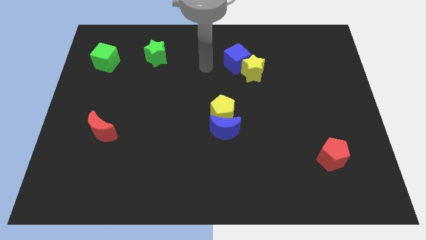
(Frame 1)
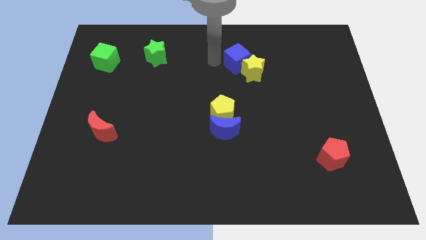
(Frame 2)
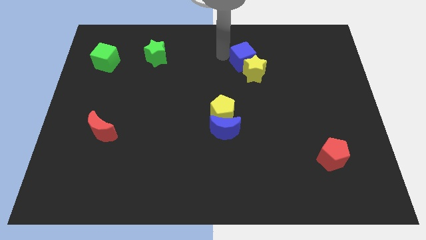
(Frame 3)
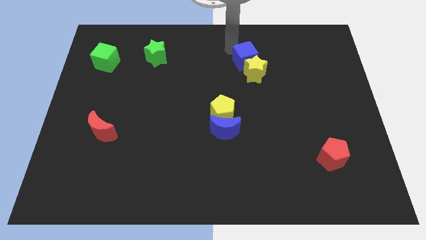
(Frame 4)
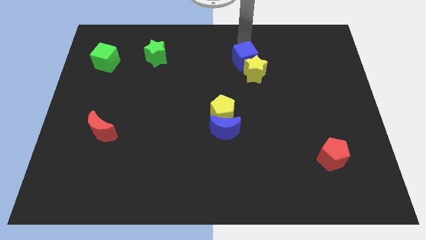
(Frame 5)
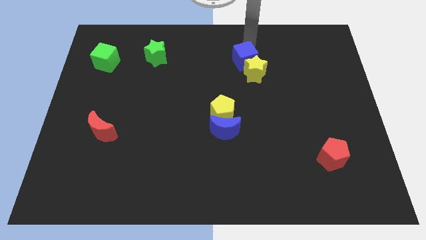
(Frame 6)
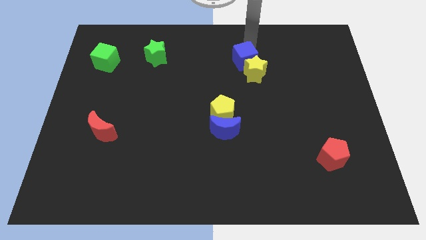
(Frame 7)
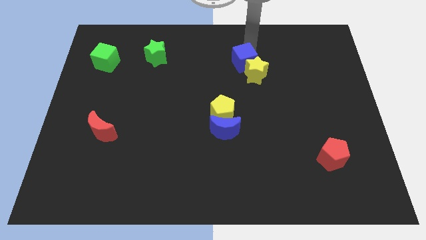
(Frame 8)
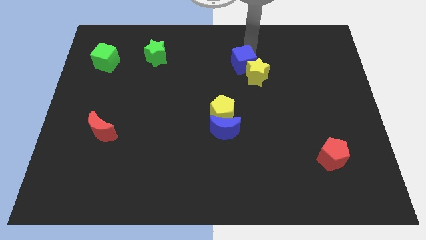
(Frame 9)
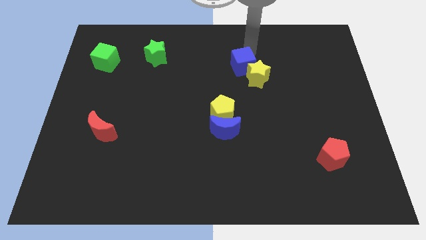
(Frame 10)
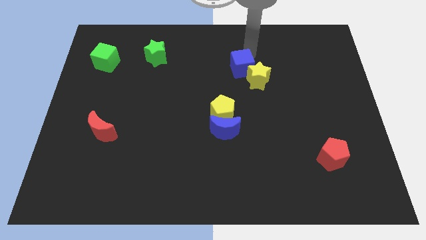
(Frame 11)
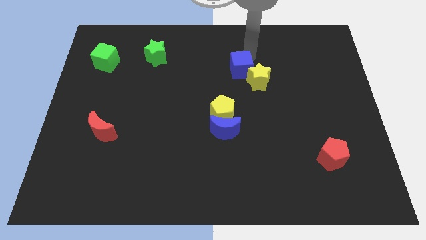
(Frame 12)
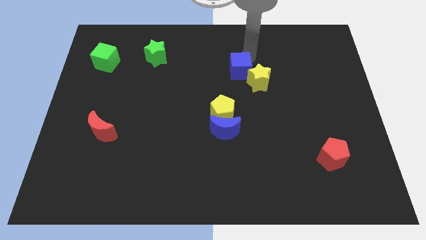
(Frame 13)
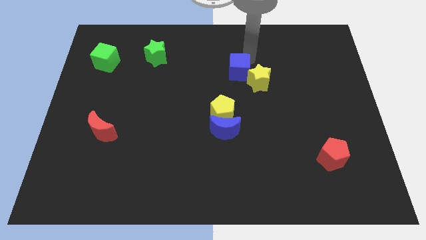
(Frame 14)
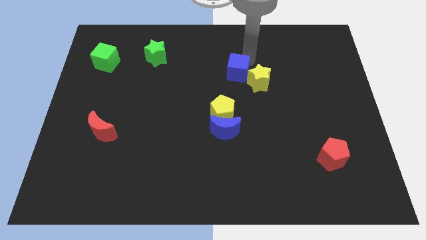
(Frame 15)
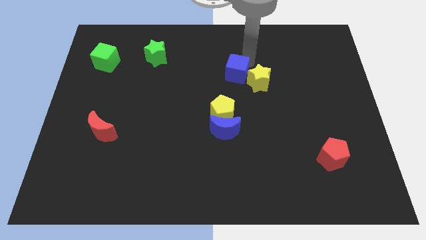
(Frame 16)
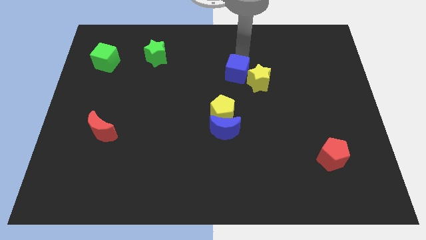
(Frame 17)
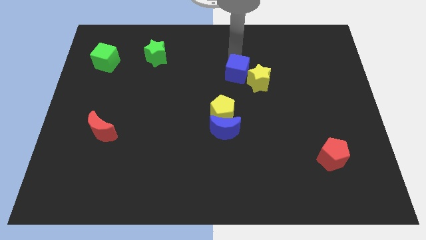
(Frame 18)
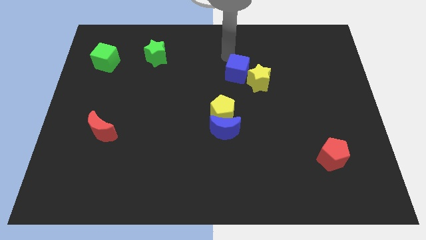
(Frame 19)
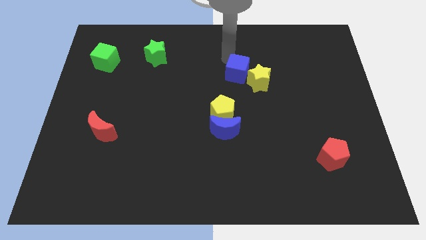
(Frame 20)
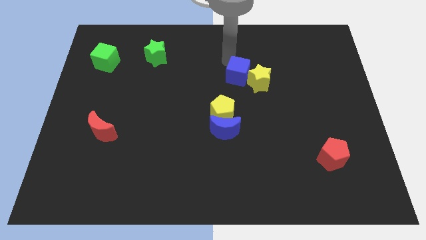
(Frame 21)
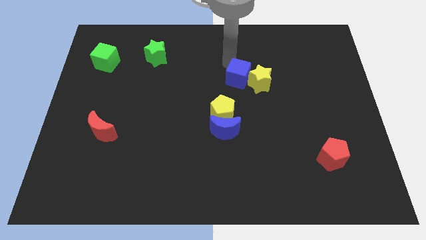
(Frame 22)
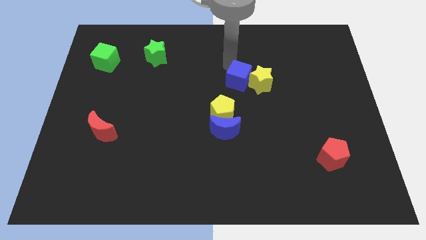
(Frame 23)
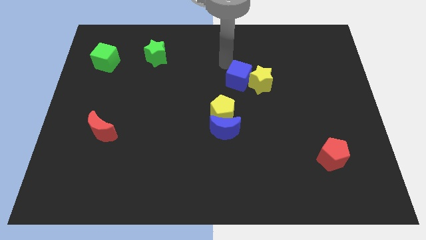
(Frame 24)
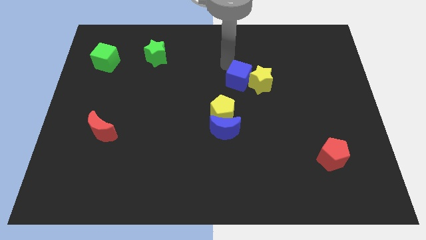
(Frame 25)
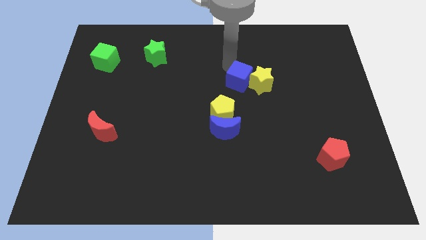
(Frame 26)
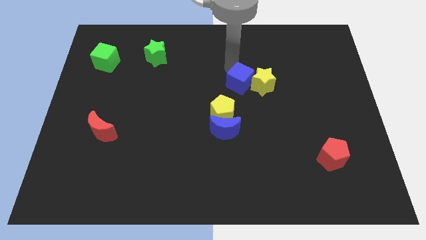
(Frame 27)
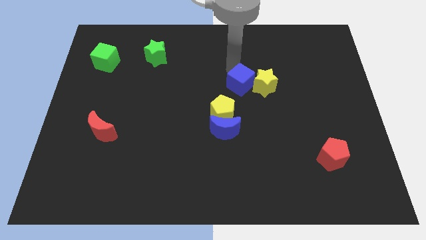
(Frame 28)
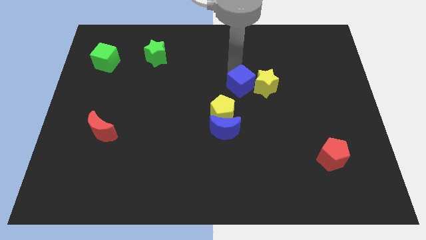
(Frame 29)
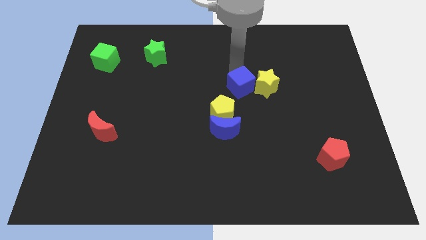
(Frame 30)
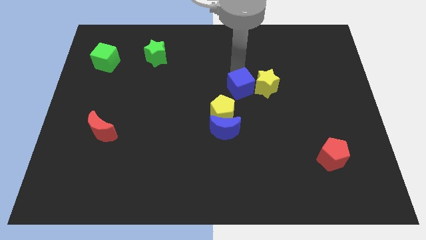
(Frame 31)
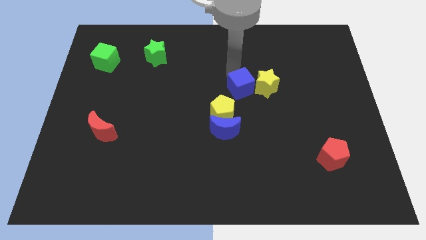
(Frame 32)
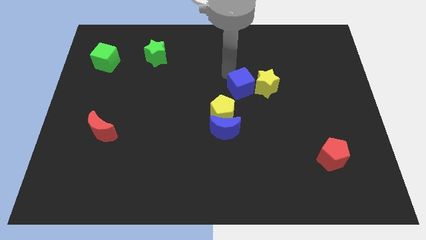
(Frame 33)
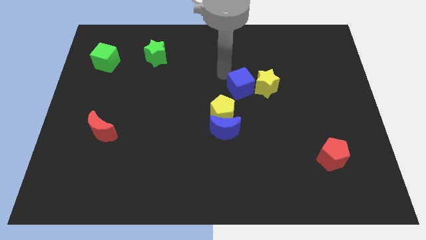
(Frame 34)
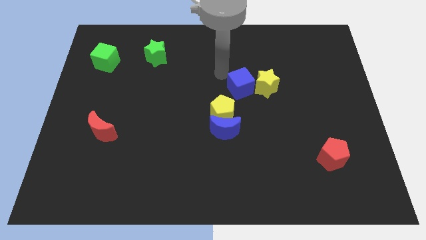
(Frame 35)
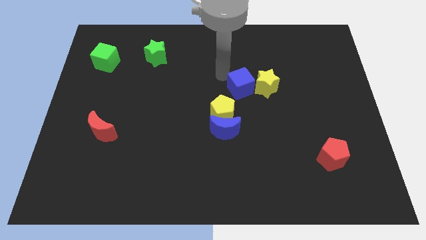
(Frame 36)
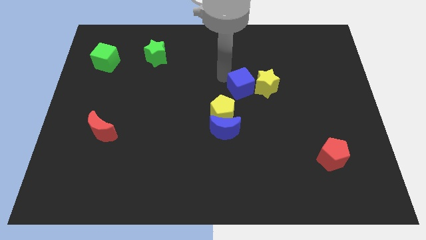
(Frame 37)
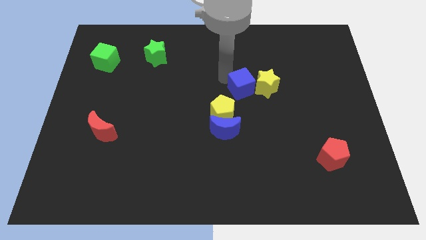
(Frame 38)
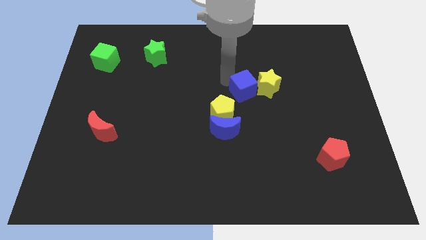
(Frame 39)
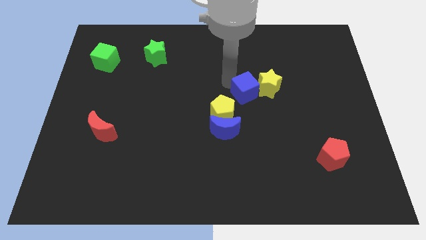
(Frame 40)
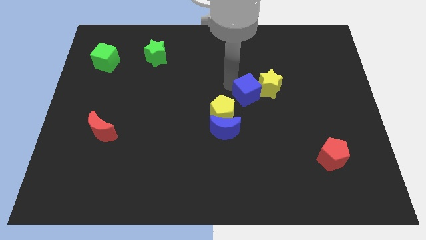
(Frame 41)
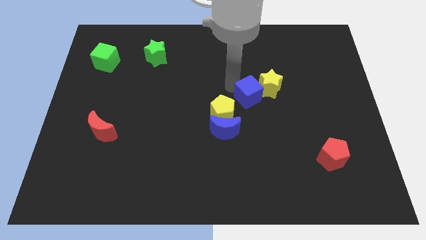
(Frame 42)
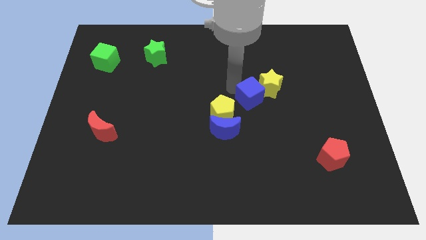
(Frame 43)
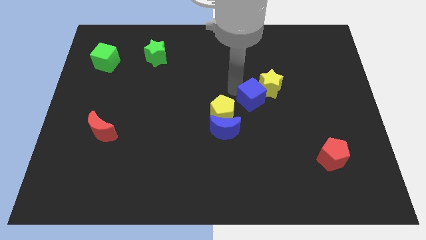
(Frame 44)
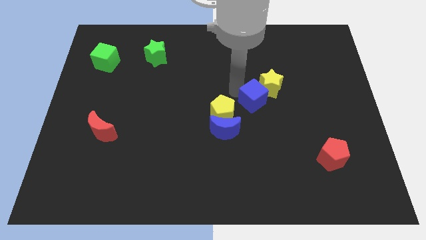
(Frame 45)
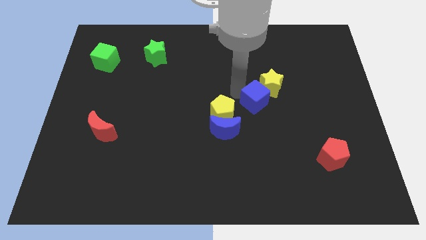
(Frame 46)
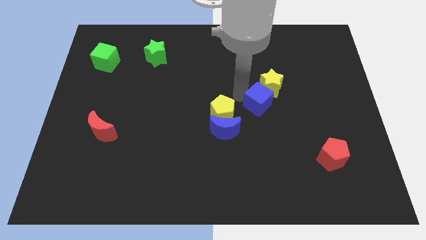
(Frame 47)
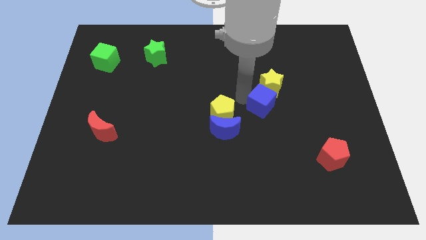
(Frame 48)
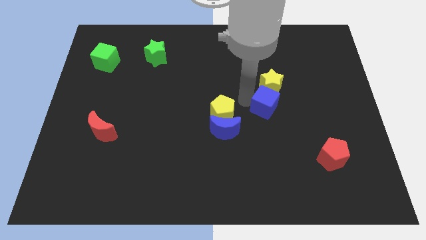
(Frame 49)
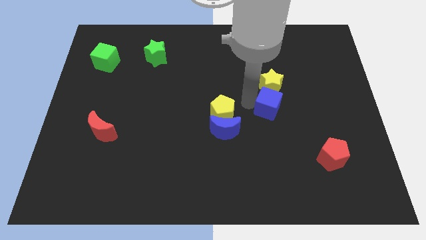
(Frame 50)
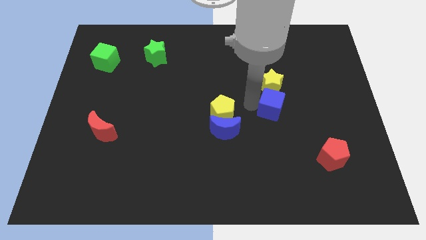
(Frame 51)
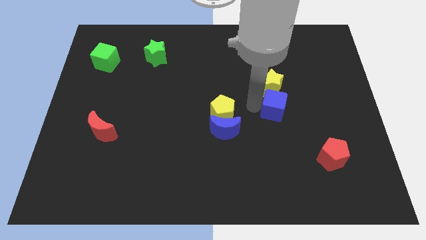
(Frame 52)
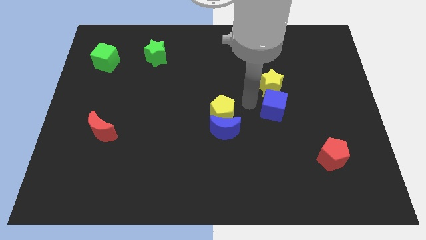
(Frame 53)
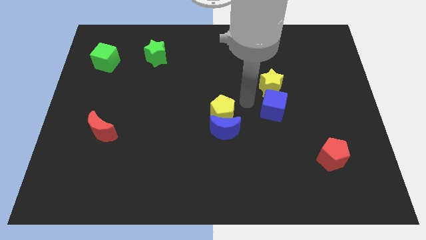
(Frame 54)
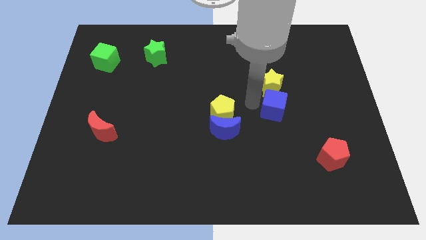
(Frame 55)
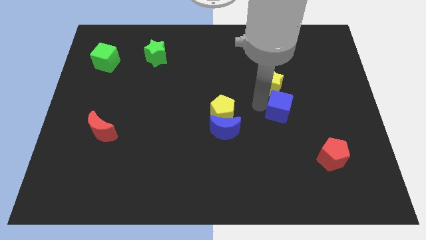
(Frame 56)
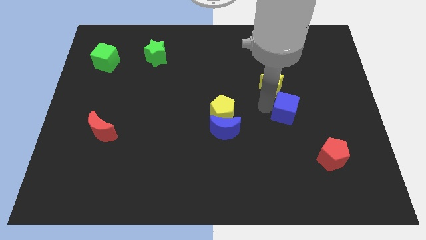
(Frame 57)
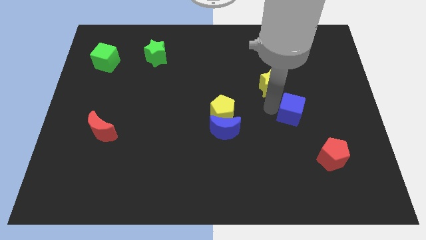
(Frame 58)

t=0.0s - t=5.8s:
push the blue cube down and then right

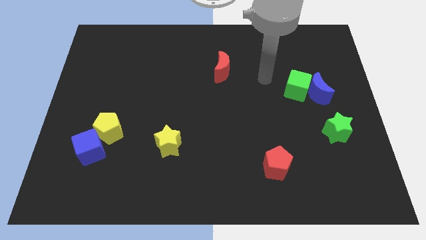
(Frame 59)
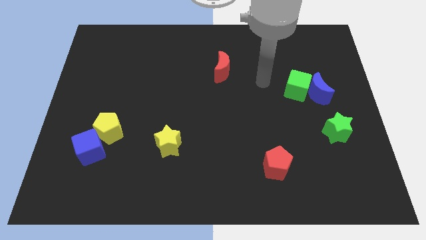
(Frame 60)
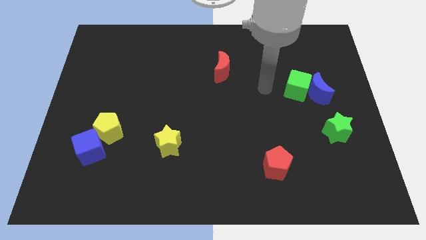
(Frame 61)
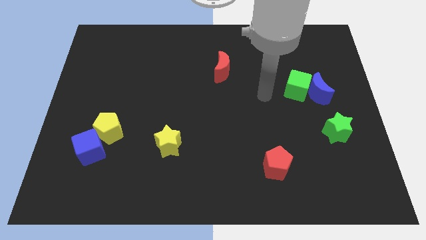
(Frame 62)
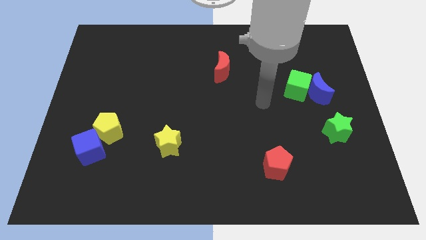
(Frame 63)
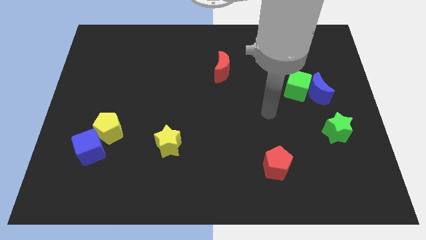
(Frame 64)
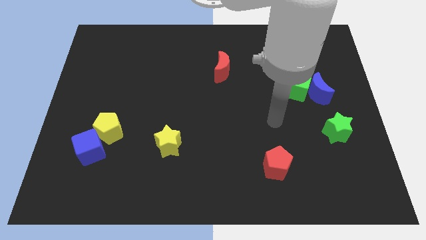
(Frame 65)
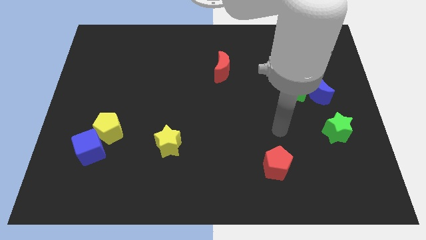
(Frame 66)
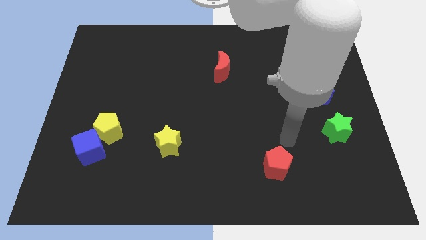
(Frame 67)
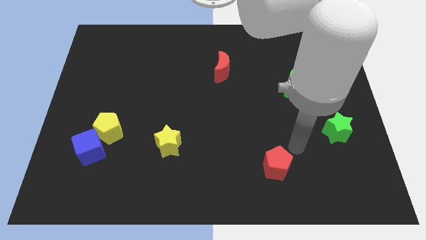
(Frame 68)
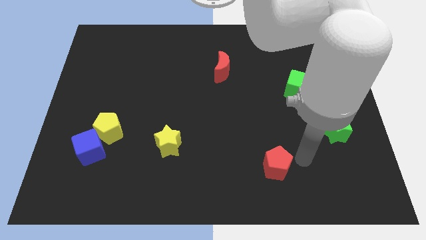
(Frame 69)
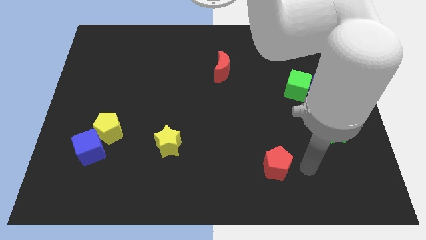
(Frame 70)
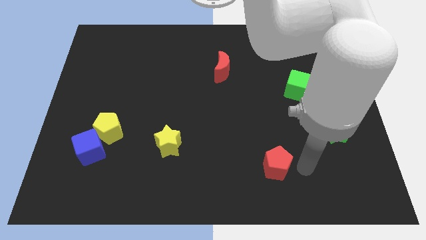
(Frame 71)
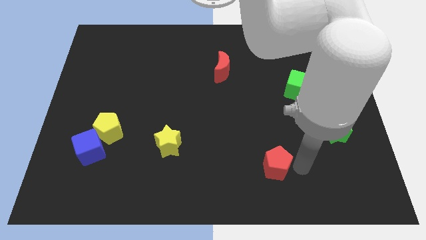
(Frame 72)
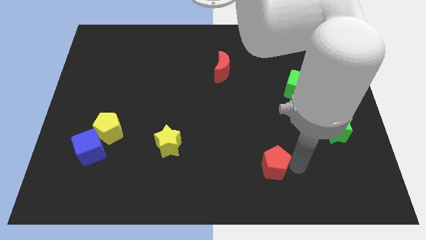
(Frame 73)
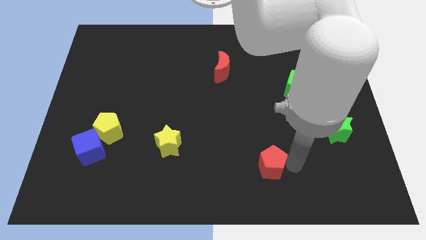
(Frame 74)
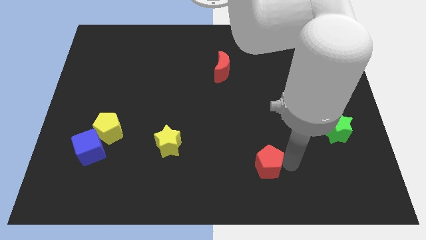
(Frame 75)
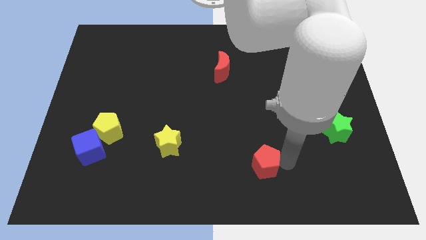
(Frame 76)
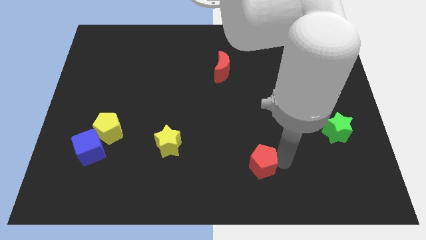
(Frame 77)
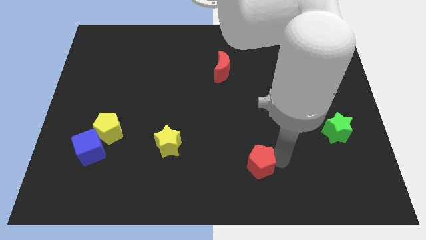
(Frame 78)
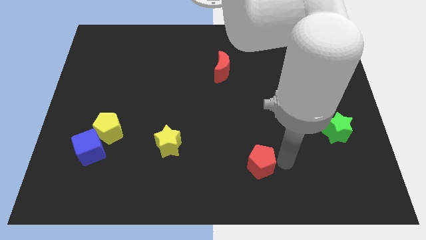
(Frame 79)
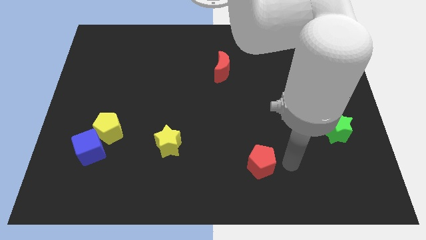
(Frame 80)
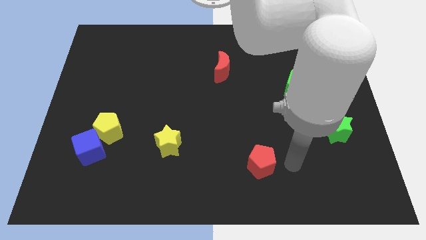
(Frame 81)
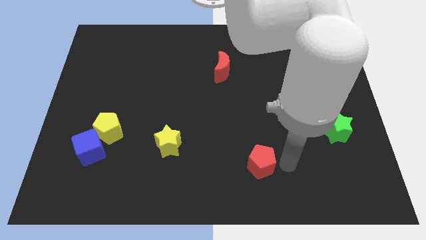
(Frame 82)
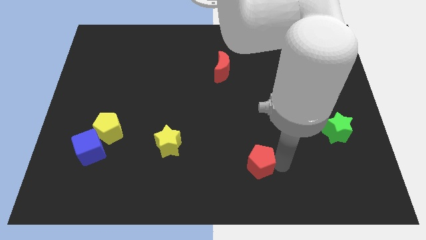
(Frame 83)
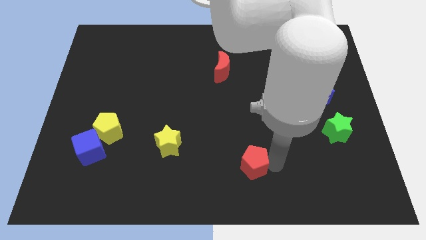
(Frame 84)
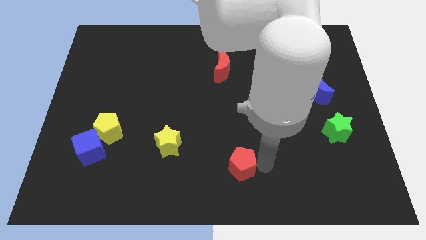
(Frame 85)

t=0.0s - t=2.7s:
move the red pentagon to the left a little bit
